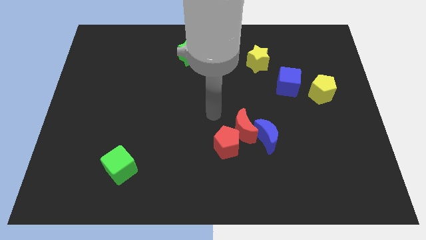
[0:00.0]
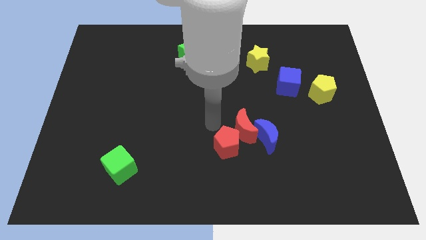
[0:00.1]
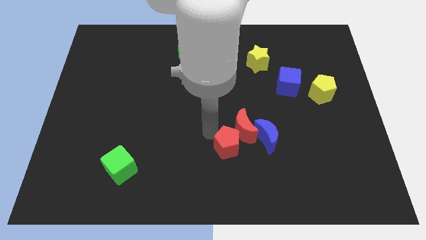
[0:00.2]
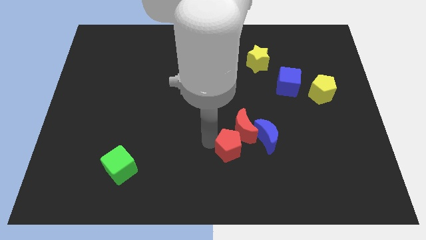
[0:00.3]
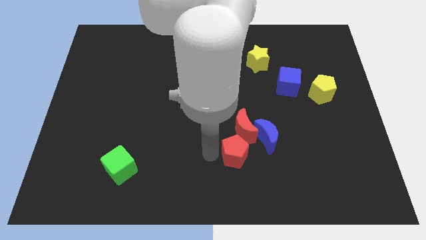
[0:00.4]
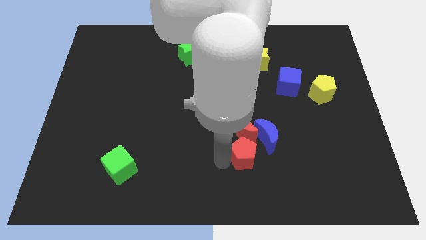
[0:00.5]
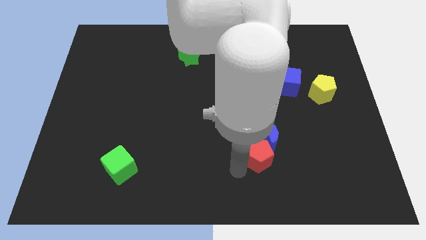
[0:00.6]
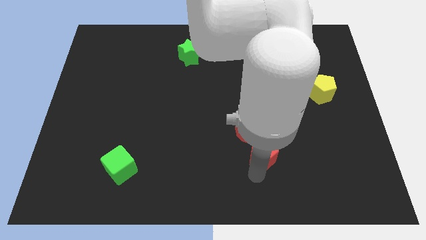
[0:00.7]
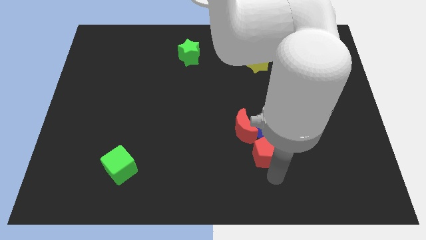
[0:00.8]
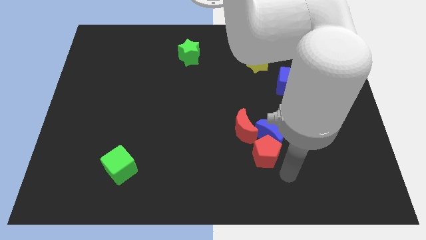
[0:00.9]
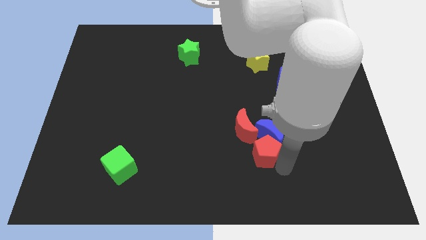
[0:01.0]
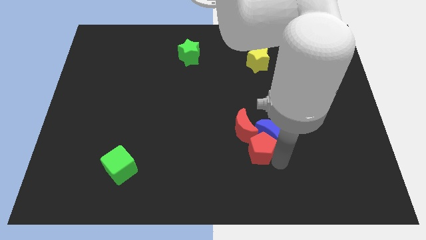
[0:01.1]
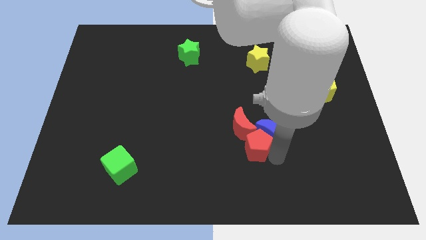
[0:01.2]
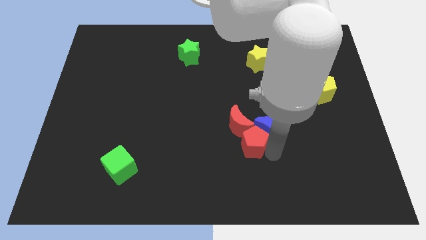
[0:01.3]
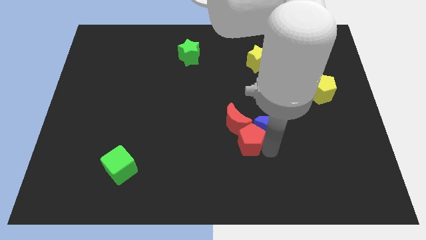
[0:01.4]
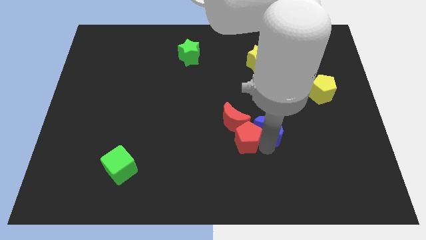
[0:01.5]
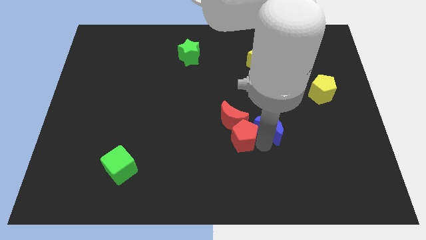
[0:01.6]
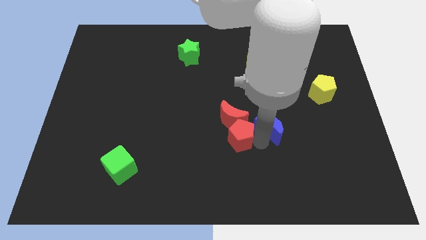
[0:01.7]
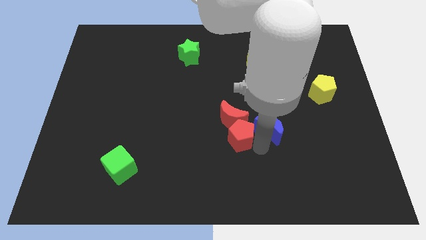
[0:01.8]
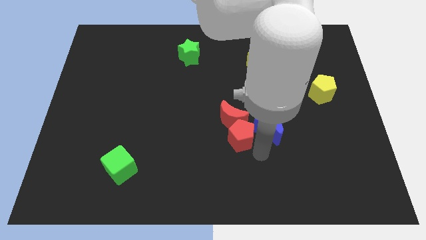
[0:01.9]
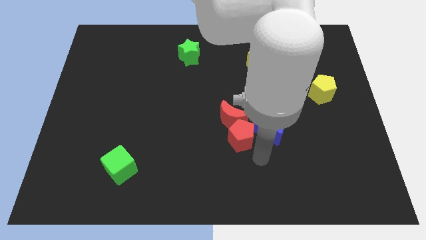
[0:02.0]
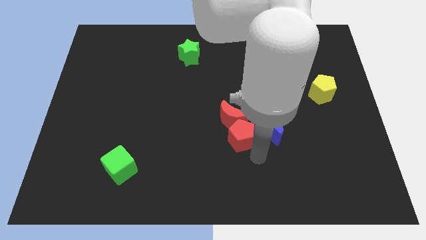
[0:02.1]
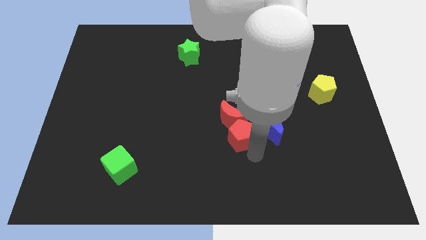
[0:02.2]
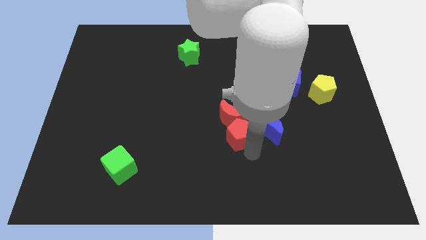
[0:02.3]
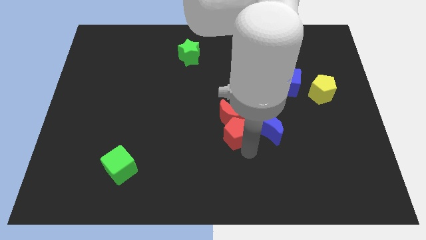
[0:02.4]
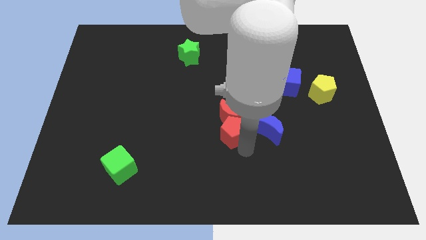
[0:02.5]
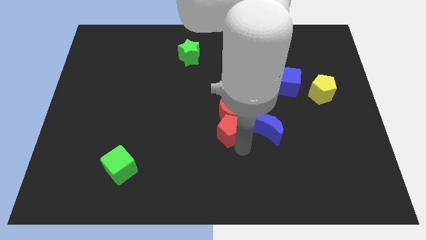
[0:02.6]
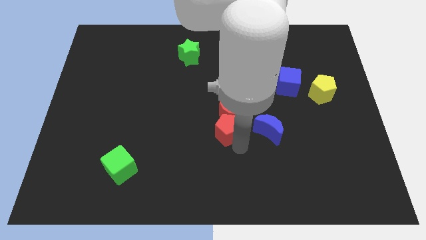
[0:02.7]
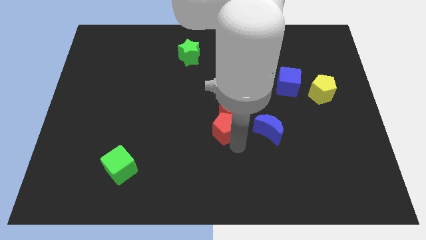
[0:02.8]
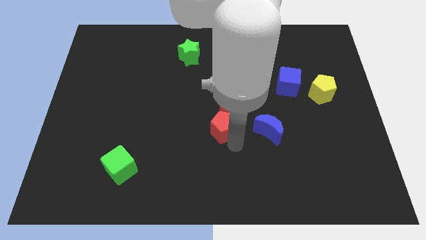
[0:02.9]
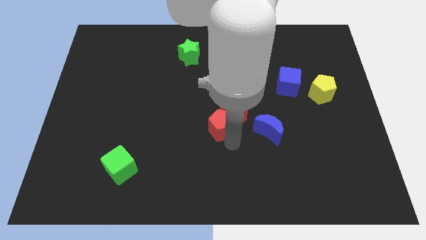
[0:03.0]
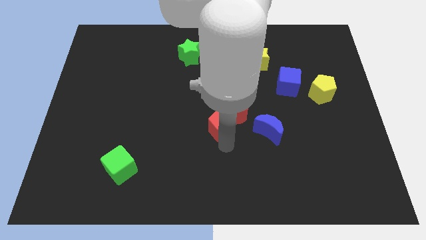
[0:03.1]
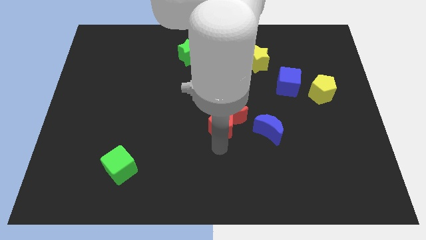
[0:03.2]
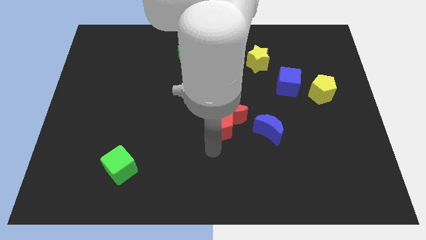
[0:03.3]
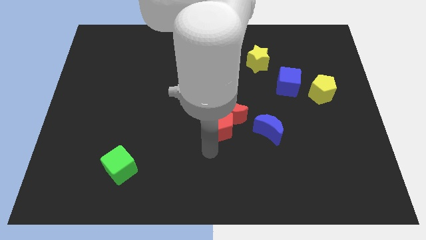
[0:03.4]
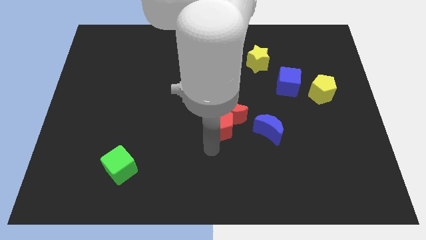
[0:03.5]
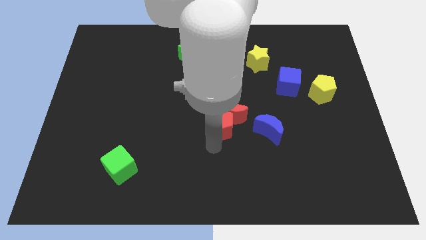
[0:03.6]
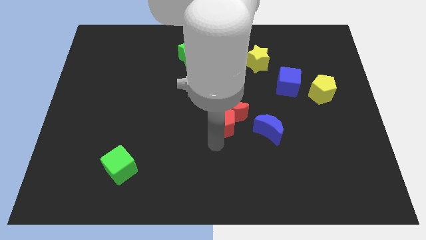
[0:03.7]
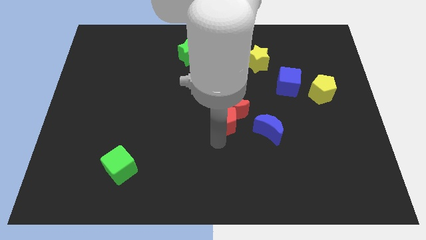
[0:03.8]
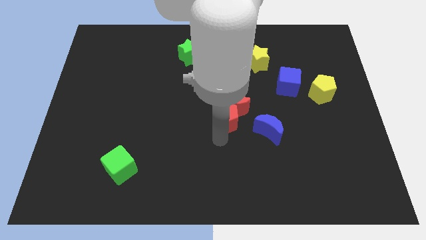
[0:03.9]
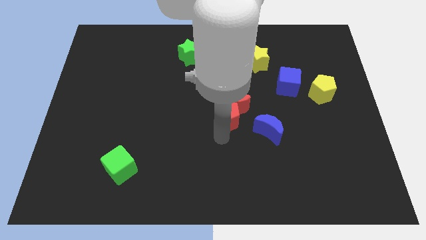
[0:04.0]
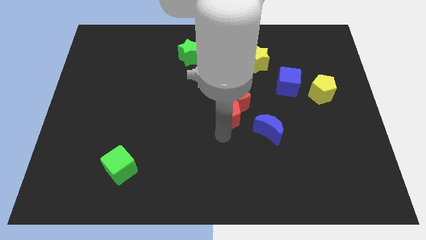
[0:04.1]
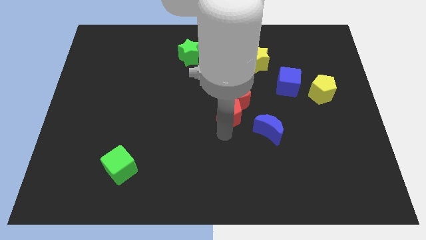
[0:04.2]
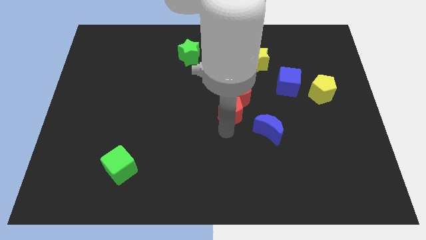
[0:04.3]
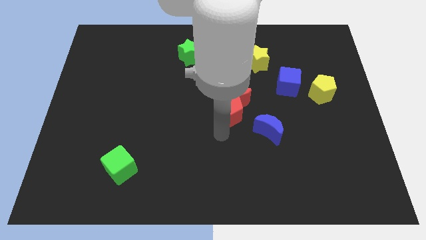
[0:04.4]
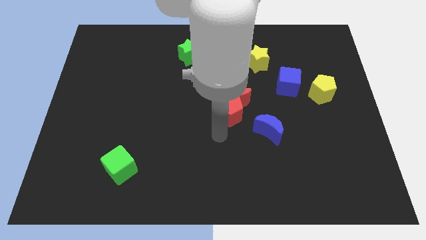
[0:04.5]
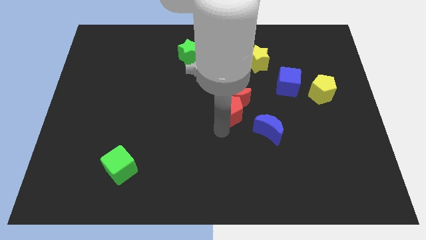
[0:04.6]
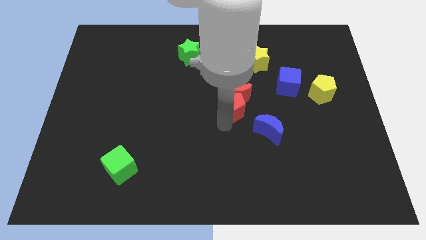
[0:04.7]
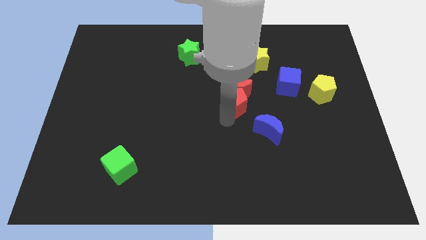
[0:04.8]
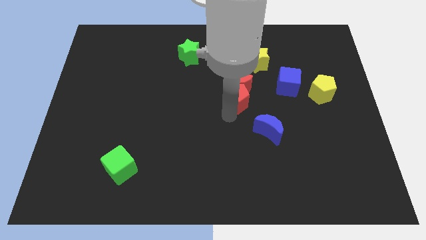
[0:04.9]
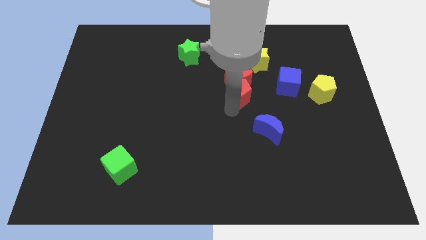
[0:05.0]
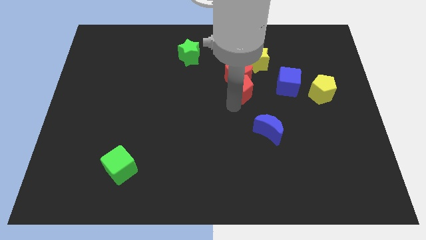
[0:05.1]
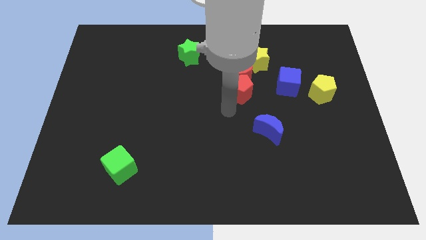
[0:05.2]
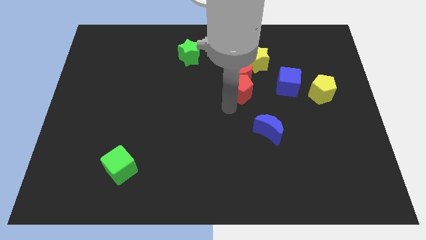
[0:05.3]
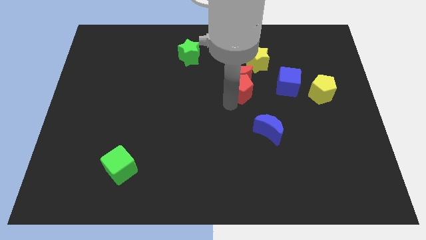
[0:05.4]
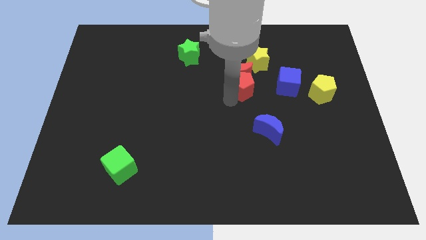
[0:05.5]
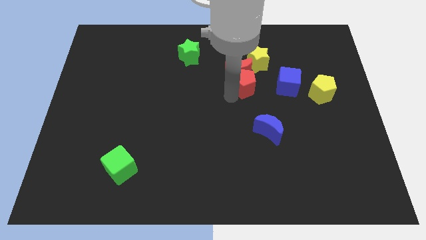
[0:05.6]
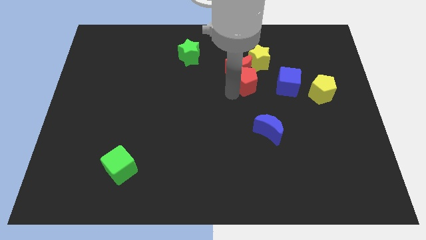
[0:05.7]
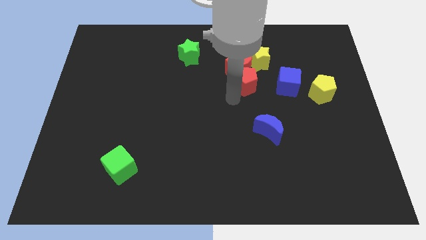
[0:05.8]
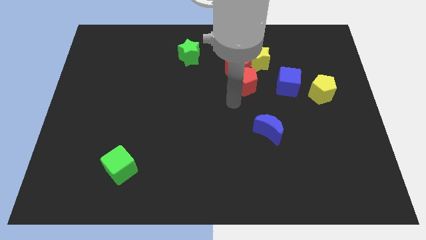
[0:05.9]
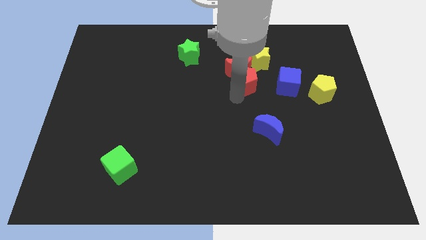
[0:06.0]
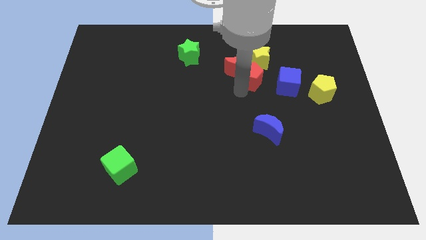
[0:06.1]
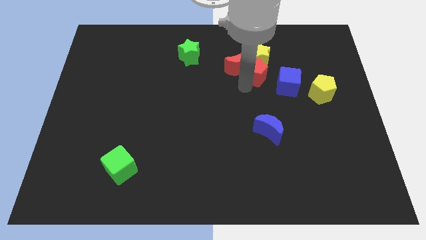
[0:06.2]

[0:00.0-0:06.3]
move the red pentagon towards the yellow star
